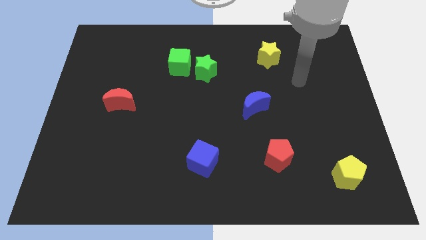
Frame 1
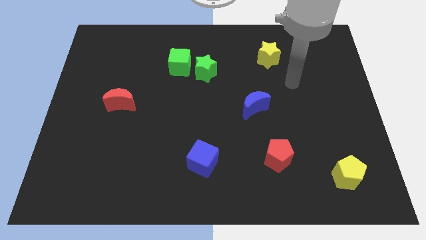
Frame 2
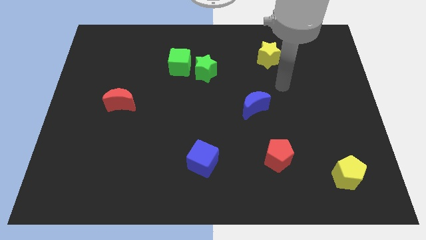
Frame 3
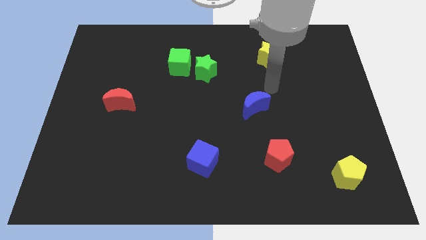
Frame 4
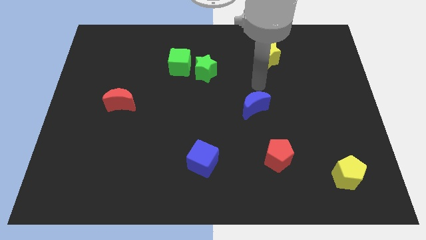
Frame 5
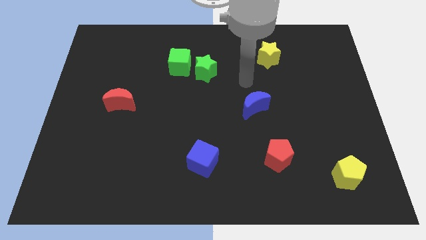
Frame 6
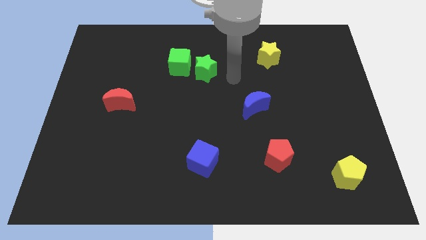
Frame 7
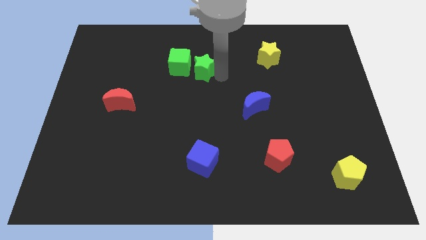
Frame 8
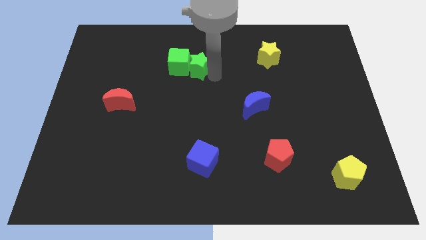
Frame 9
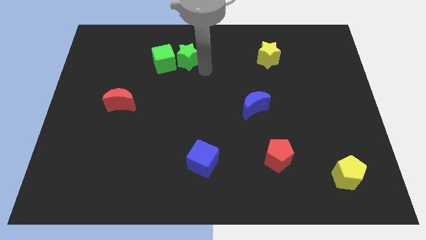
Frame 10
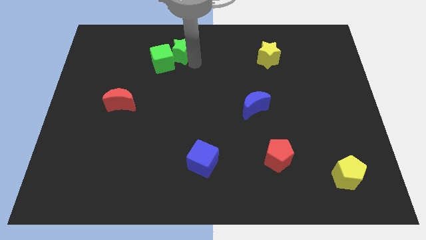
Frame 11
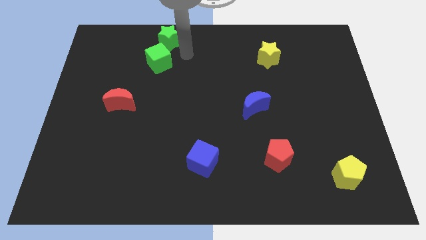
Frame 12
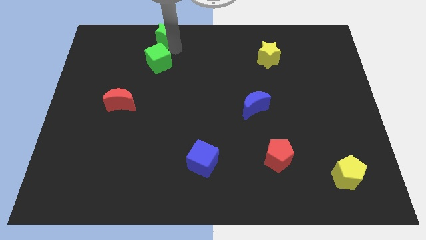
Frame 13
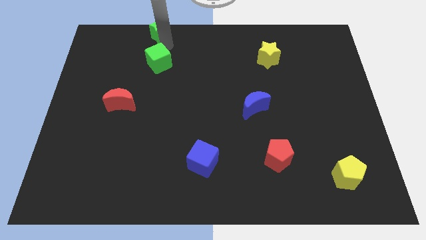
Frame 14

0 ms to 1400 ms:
pull the green cube apart from the green star

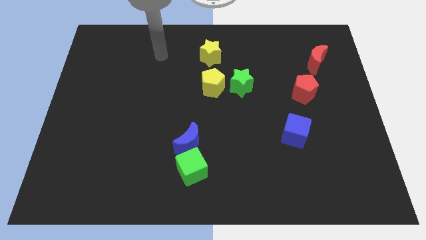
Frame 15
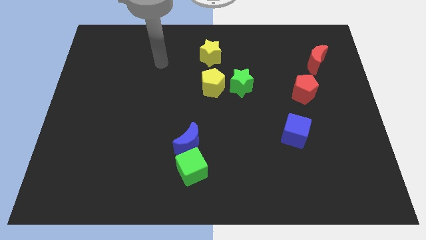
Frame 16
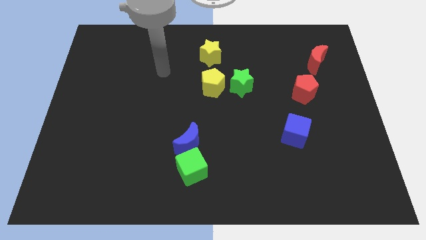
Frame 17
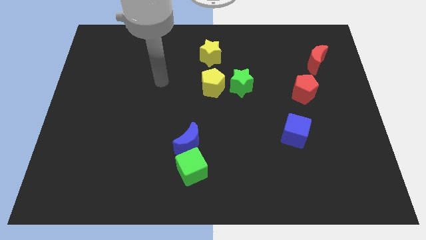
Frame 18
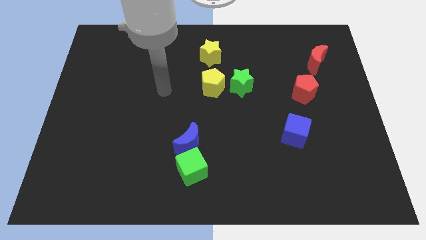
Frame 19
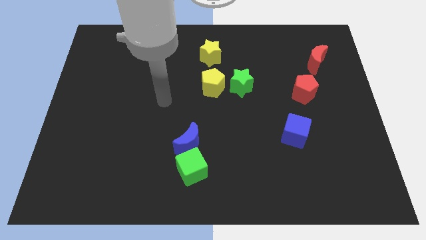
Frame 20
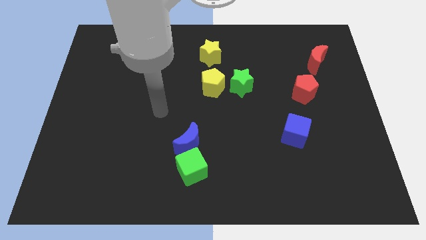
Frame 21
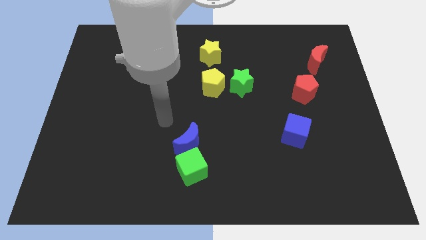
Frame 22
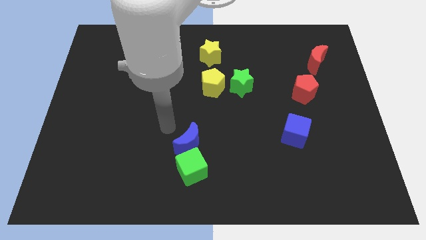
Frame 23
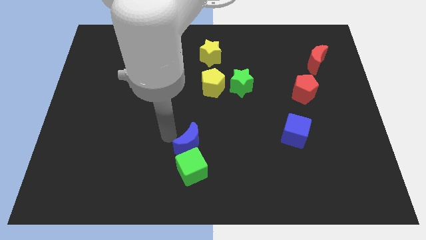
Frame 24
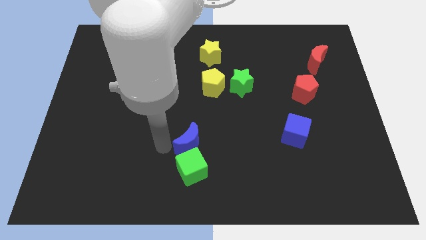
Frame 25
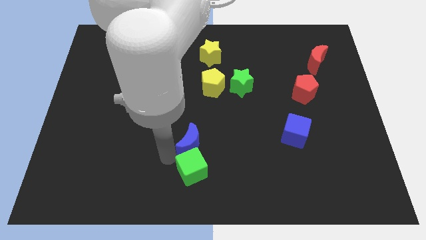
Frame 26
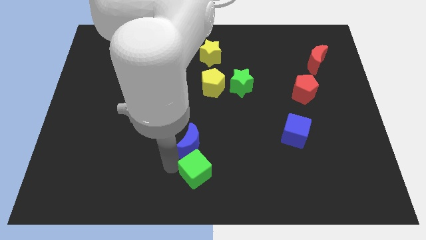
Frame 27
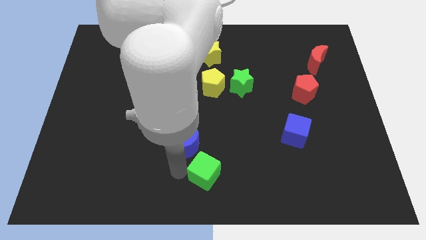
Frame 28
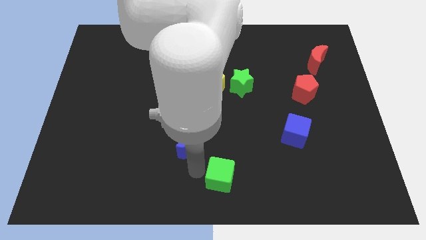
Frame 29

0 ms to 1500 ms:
pull the blue moon apart from the green cube

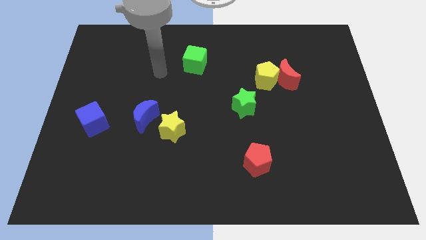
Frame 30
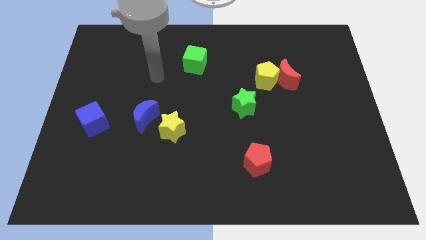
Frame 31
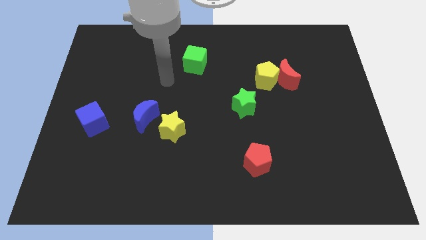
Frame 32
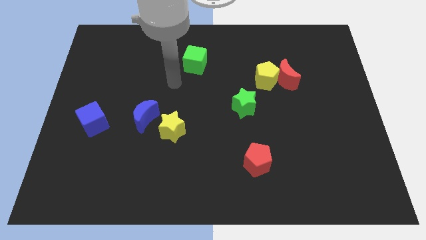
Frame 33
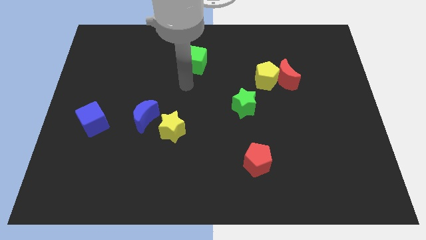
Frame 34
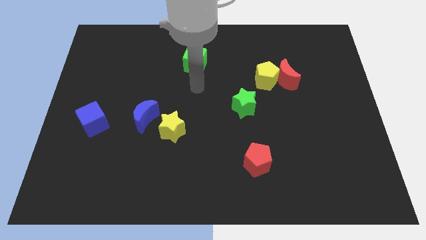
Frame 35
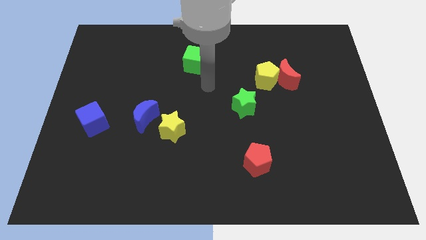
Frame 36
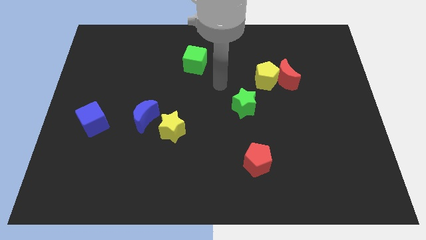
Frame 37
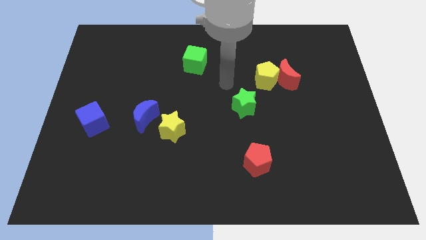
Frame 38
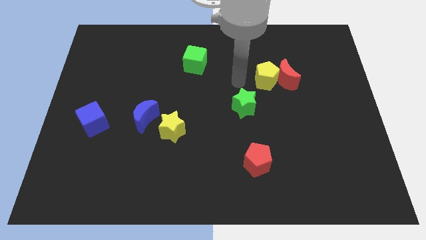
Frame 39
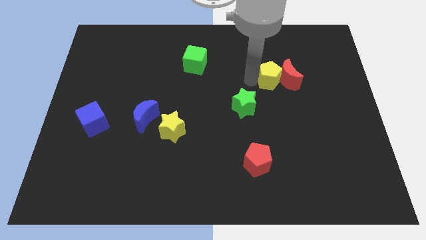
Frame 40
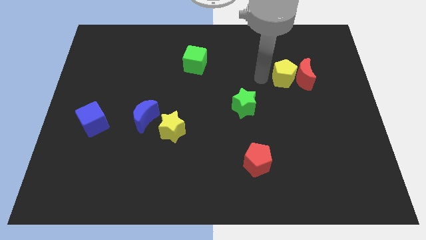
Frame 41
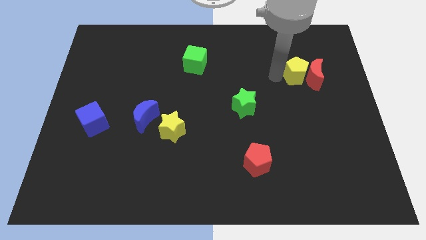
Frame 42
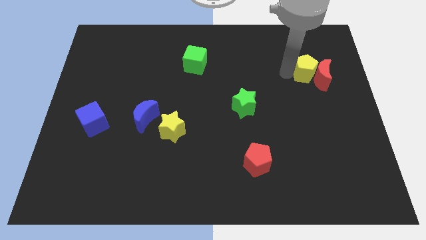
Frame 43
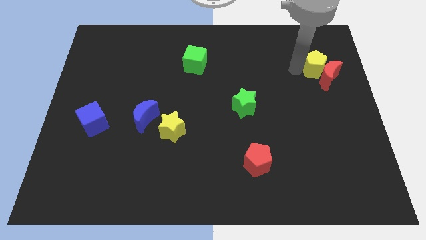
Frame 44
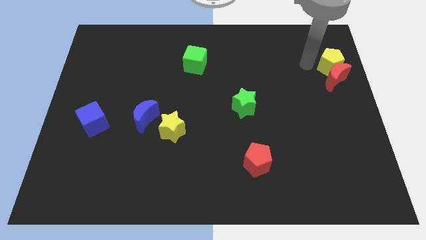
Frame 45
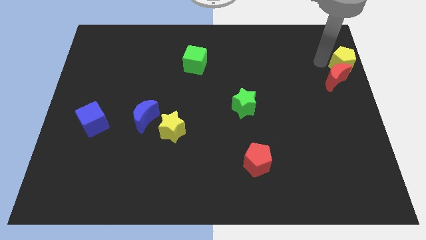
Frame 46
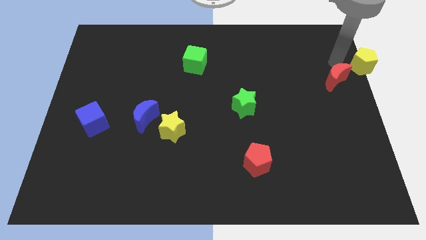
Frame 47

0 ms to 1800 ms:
move the red moon away from the yellow pentagon

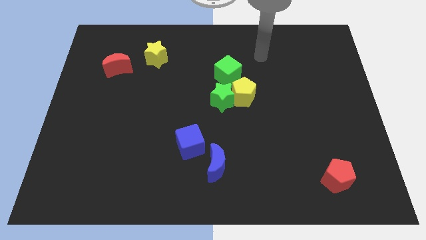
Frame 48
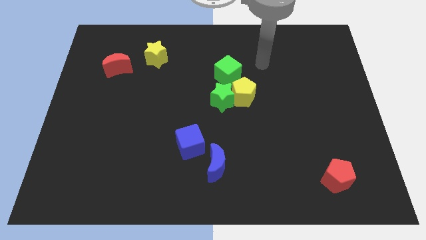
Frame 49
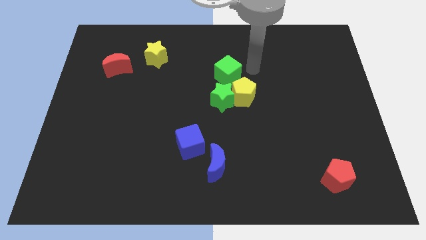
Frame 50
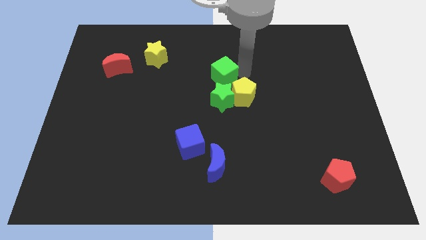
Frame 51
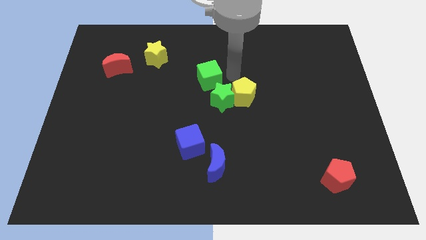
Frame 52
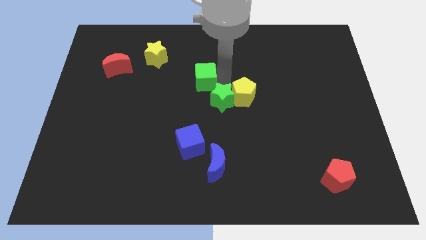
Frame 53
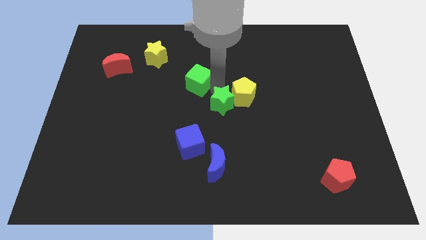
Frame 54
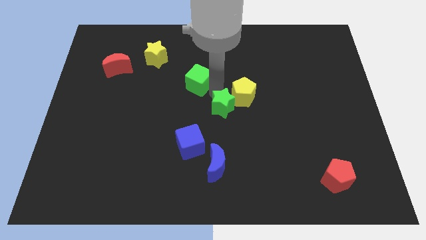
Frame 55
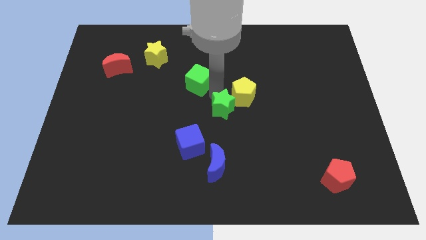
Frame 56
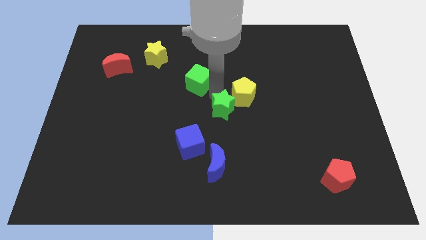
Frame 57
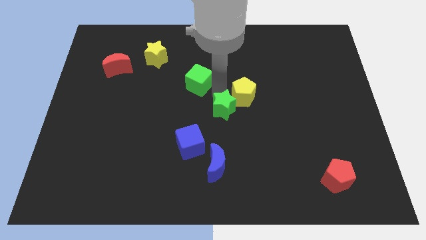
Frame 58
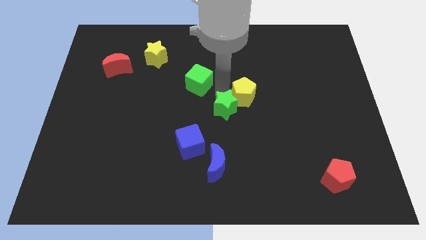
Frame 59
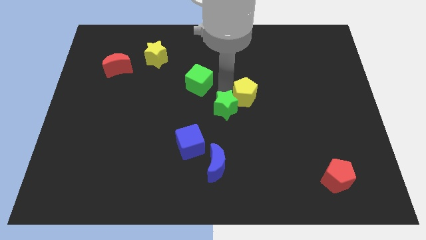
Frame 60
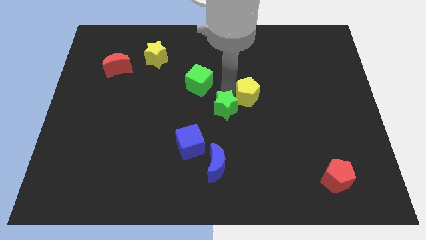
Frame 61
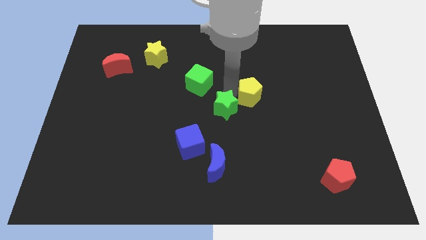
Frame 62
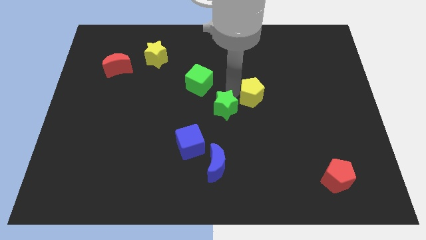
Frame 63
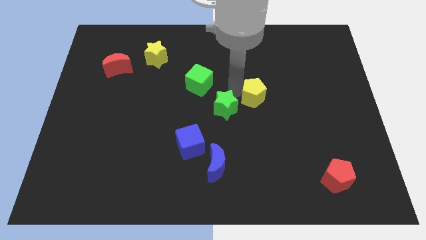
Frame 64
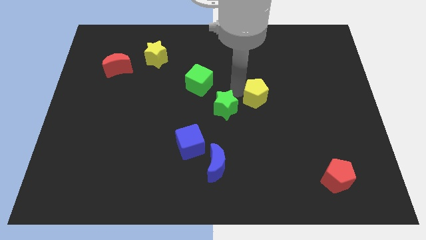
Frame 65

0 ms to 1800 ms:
pull the yellow pentagon apart from the green star and green cube

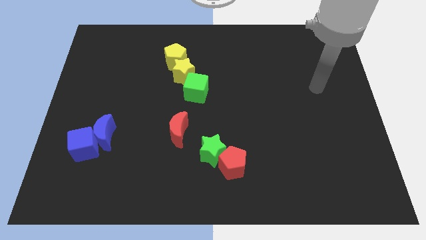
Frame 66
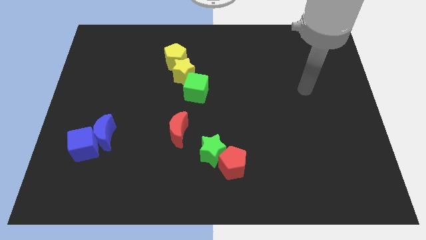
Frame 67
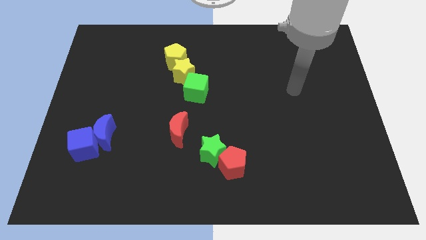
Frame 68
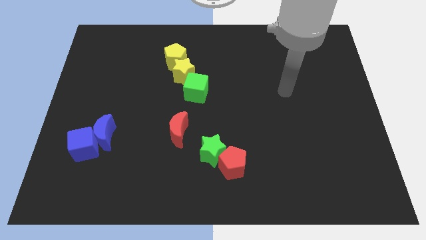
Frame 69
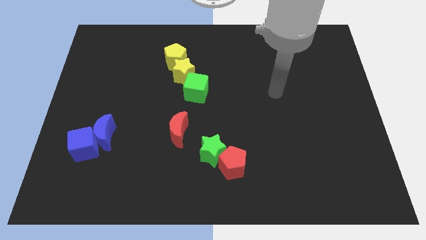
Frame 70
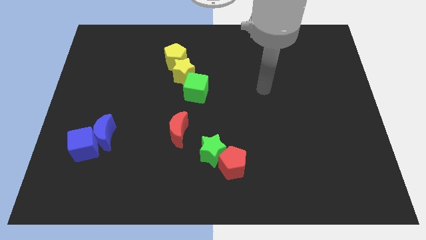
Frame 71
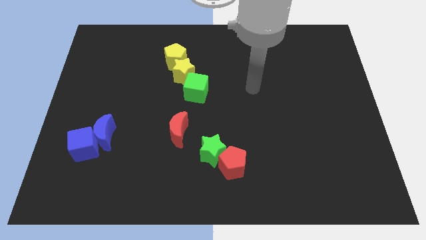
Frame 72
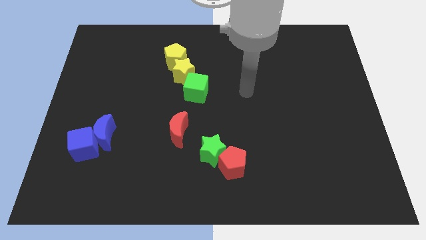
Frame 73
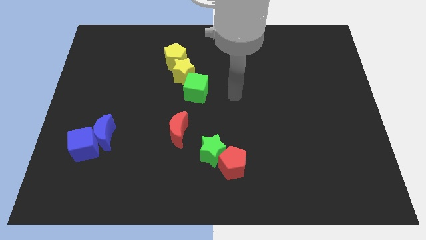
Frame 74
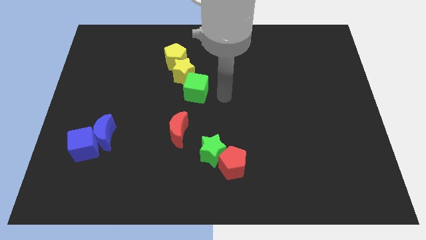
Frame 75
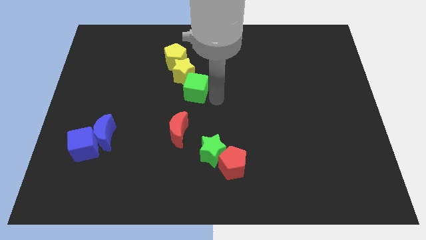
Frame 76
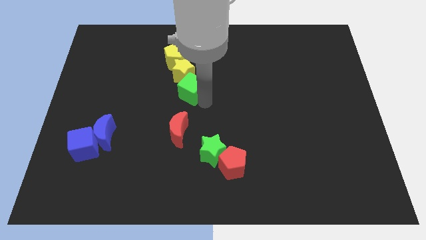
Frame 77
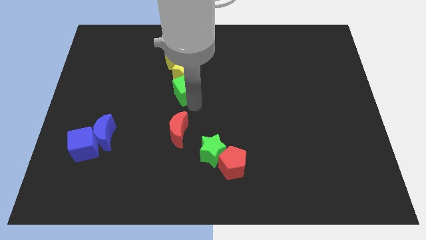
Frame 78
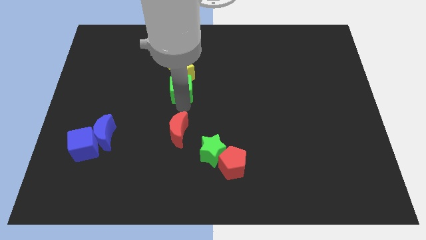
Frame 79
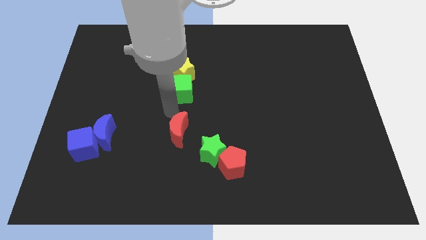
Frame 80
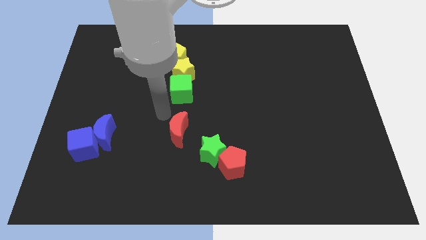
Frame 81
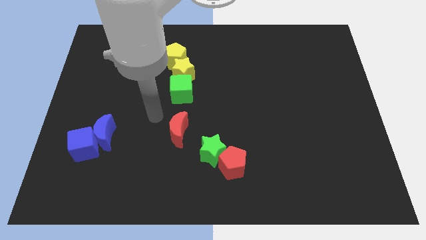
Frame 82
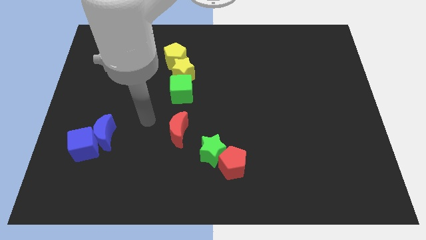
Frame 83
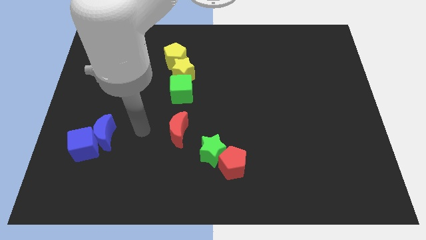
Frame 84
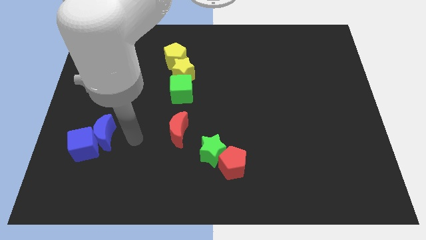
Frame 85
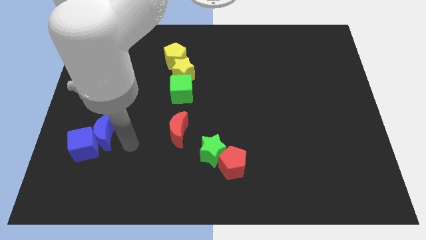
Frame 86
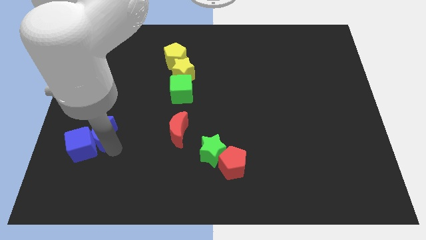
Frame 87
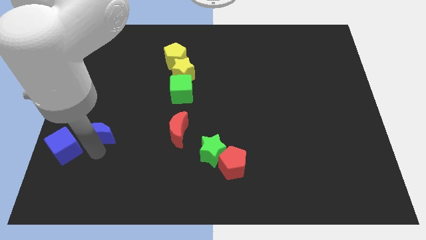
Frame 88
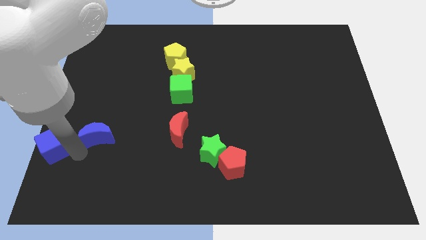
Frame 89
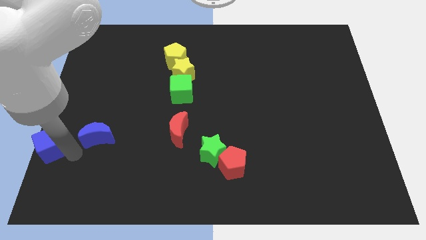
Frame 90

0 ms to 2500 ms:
move the blue moon away from the blue cube

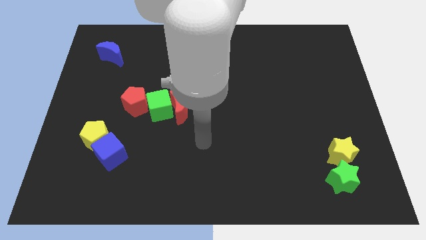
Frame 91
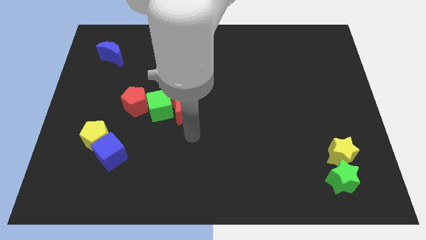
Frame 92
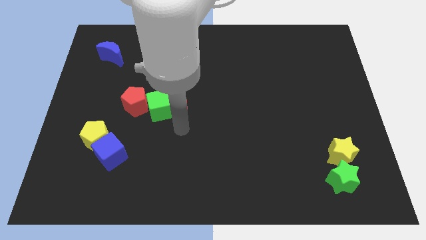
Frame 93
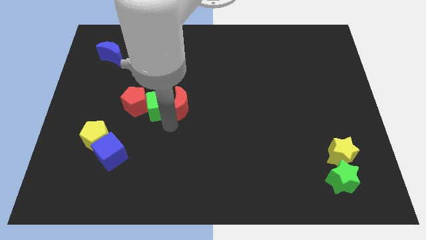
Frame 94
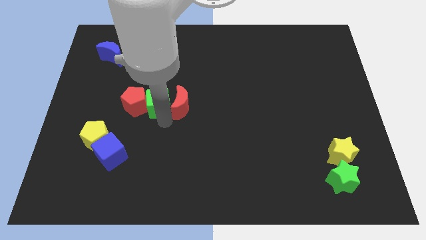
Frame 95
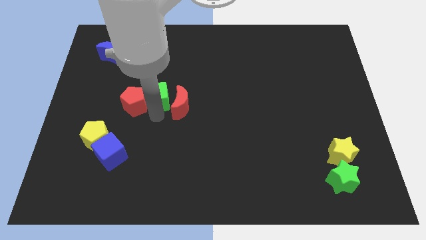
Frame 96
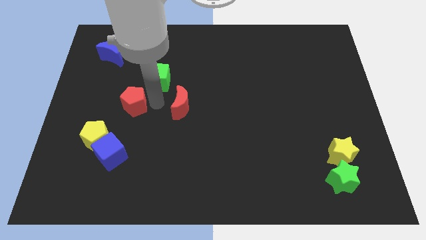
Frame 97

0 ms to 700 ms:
move the red moon away from the green cube
